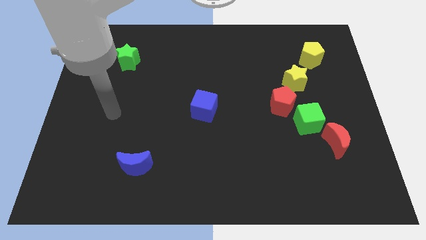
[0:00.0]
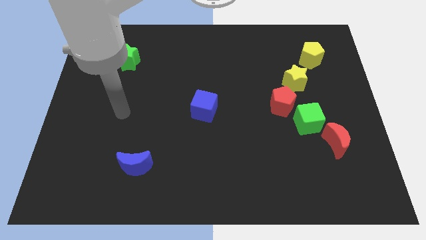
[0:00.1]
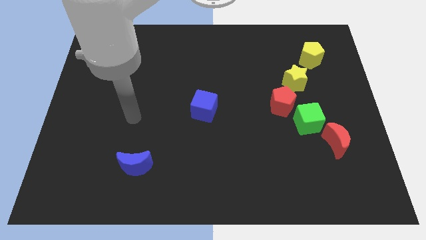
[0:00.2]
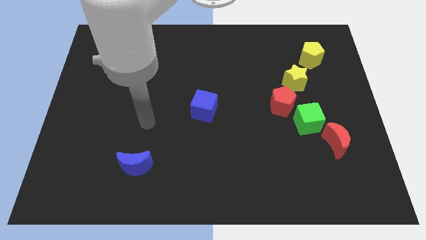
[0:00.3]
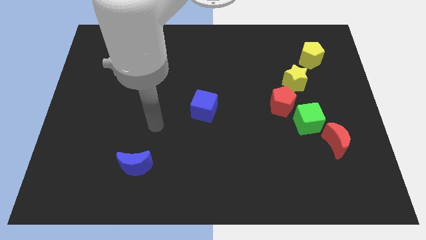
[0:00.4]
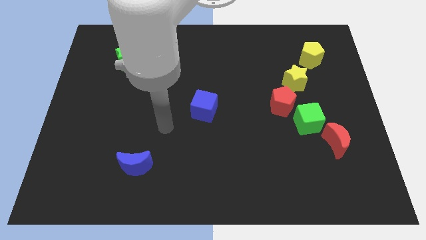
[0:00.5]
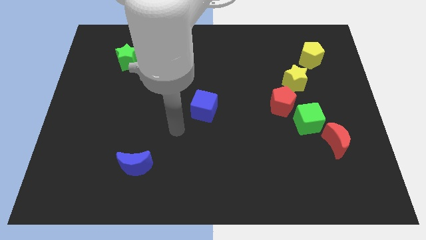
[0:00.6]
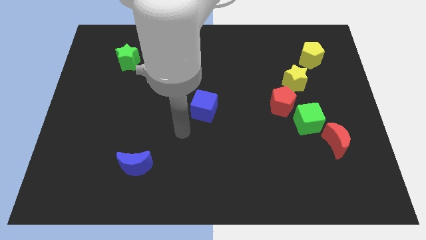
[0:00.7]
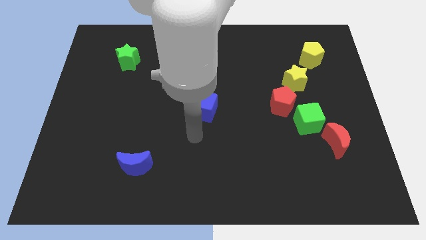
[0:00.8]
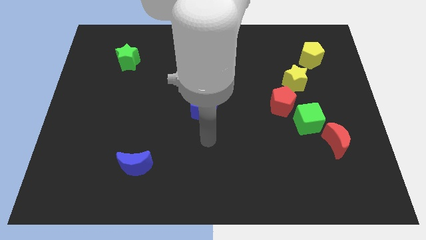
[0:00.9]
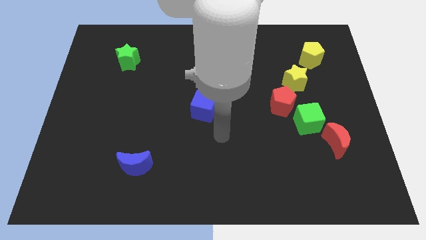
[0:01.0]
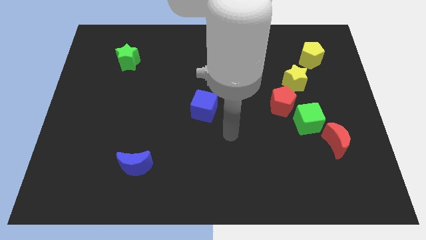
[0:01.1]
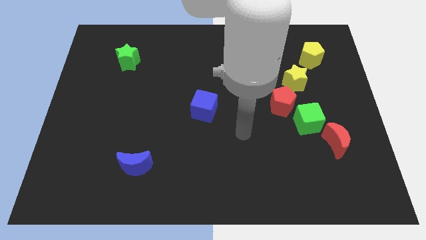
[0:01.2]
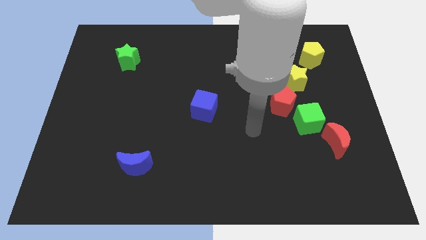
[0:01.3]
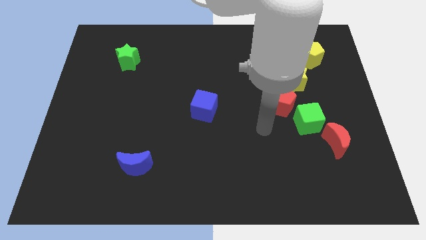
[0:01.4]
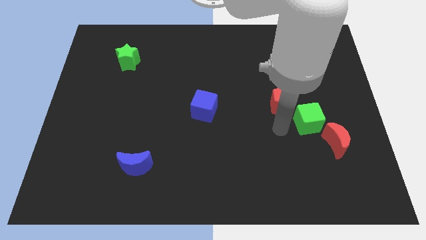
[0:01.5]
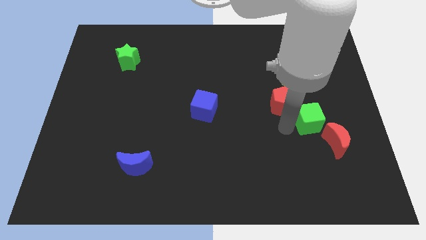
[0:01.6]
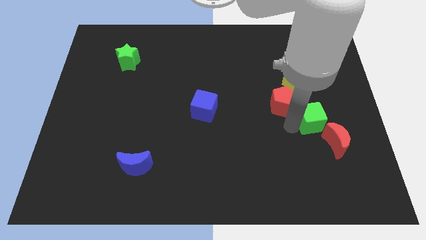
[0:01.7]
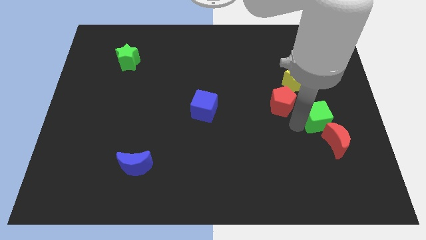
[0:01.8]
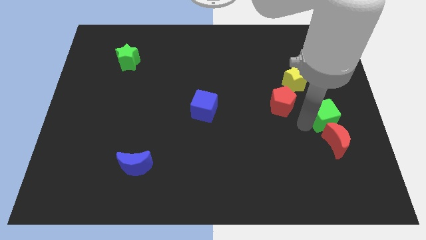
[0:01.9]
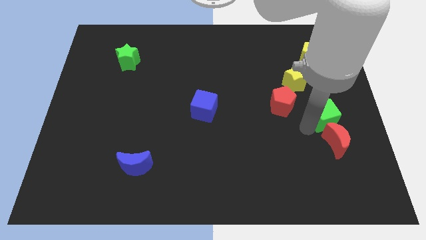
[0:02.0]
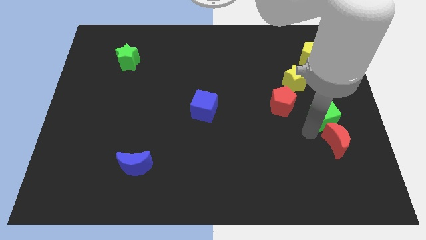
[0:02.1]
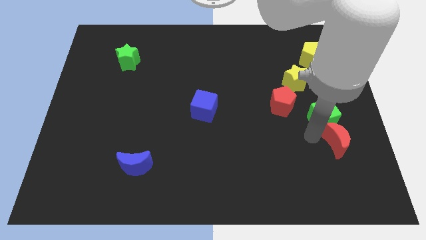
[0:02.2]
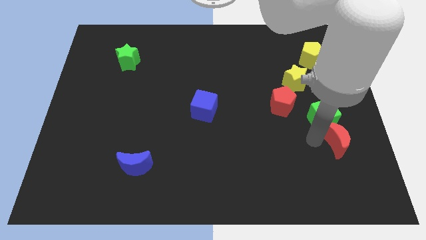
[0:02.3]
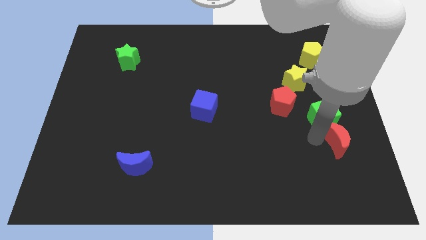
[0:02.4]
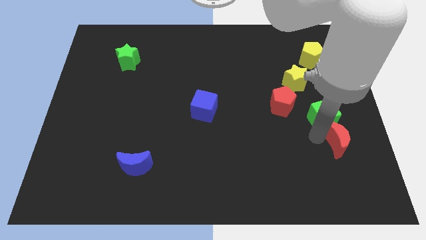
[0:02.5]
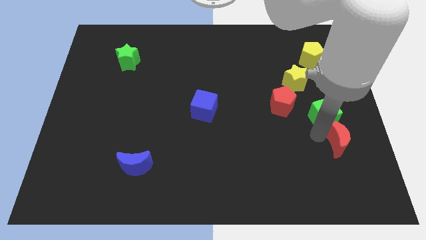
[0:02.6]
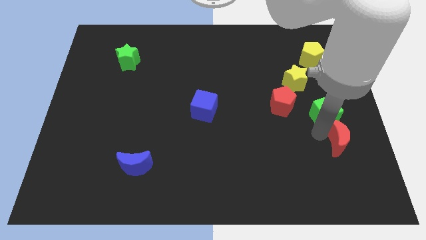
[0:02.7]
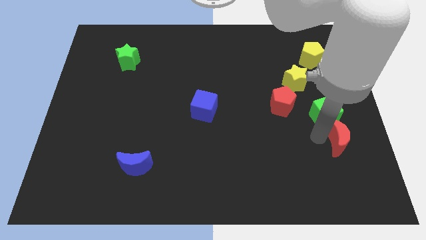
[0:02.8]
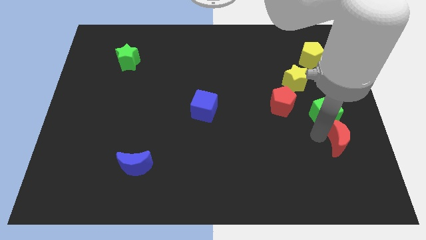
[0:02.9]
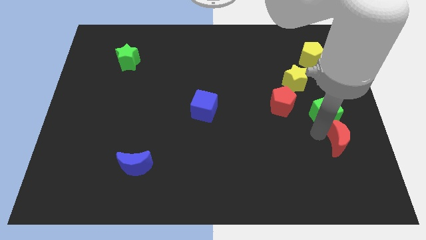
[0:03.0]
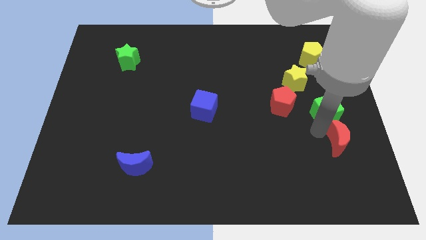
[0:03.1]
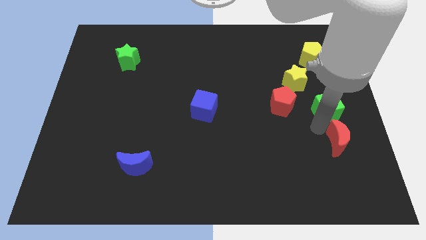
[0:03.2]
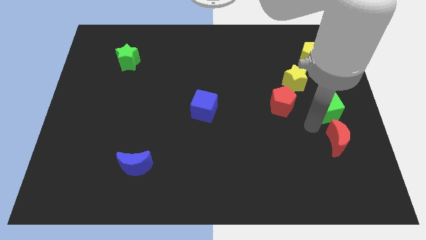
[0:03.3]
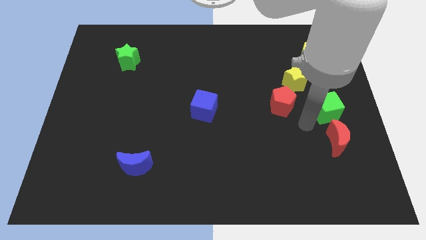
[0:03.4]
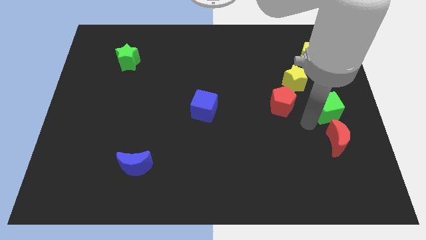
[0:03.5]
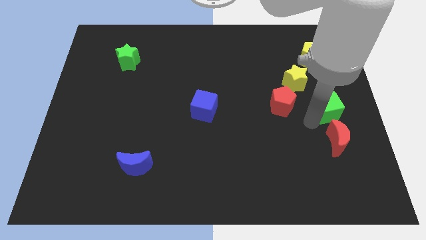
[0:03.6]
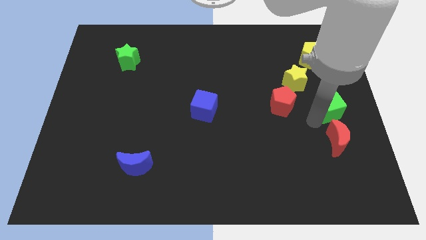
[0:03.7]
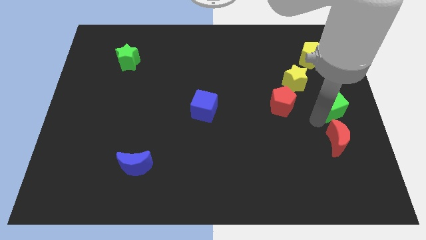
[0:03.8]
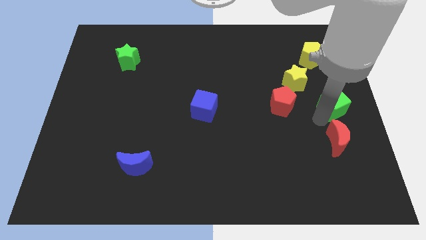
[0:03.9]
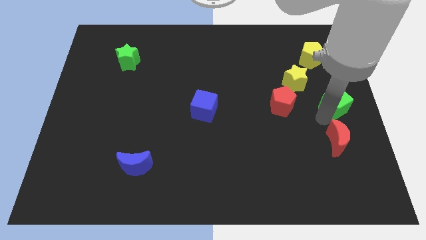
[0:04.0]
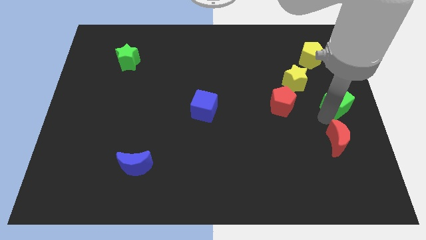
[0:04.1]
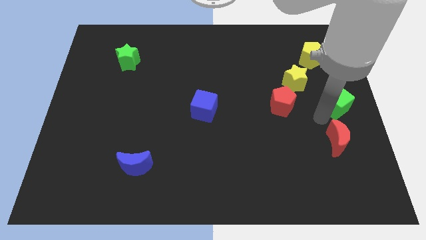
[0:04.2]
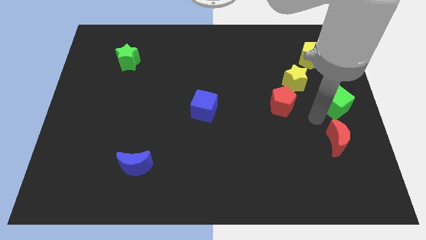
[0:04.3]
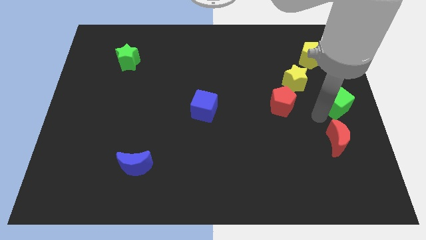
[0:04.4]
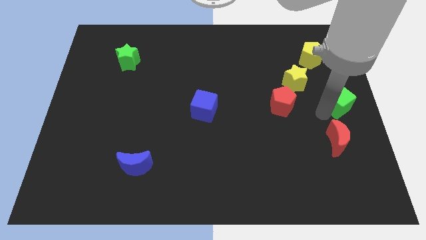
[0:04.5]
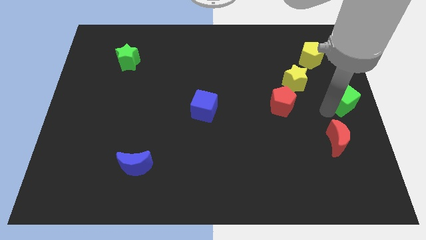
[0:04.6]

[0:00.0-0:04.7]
move the green cube away from the red pentagon and red moon

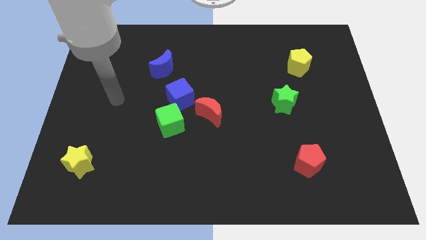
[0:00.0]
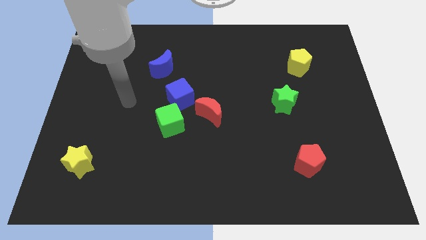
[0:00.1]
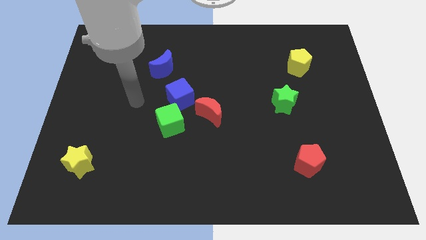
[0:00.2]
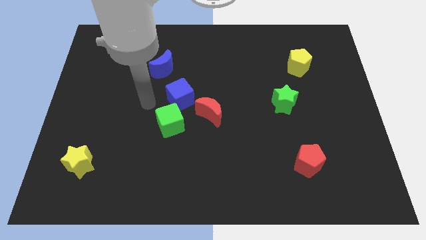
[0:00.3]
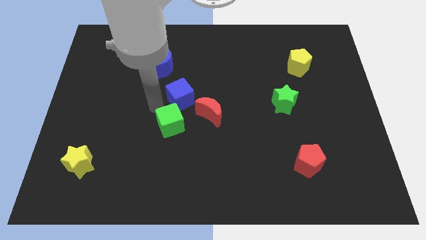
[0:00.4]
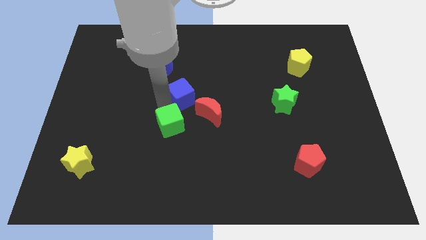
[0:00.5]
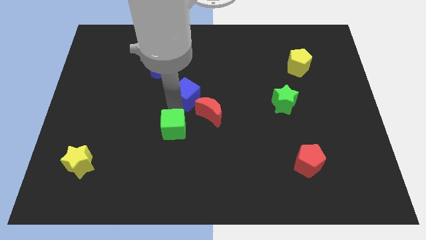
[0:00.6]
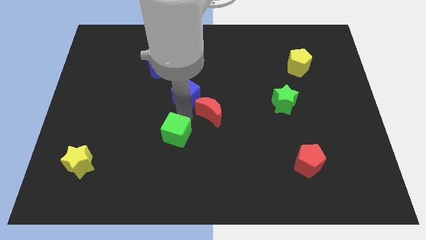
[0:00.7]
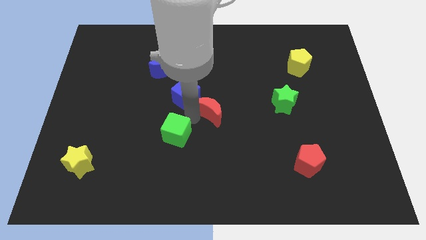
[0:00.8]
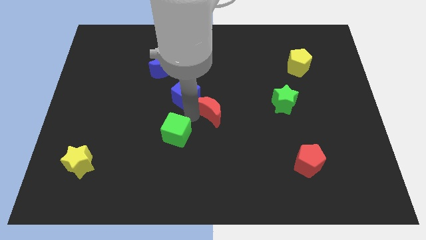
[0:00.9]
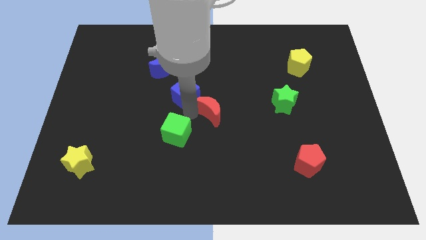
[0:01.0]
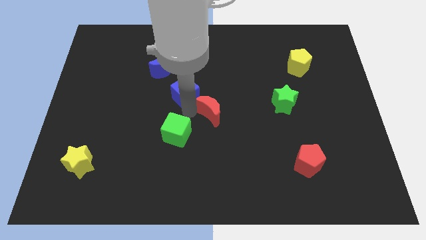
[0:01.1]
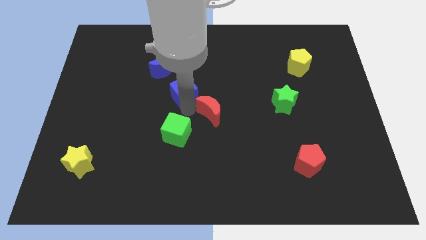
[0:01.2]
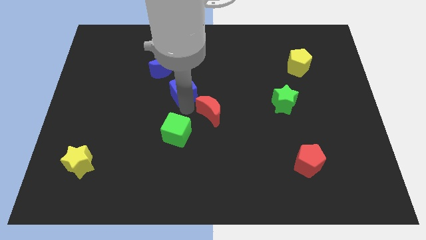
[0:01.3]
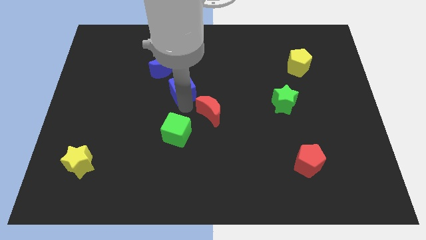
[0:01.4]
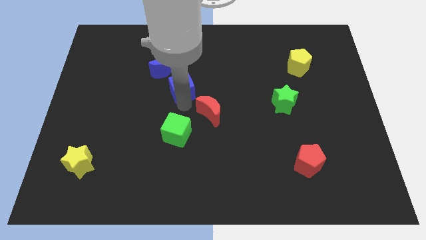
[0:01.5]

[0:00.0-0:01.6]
pull the blue cube apart from the green cube and red moon

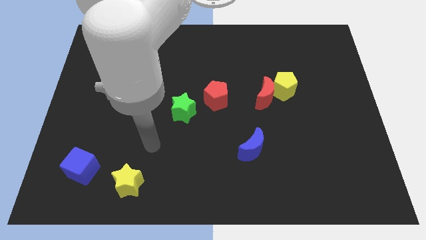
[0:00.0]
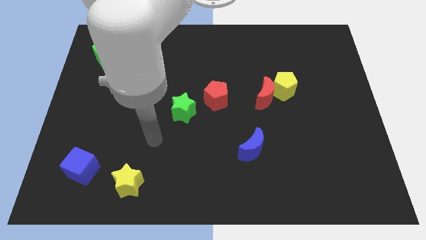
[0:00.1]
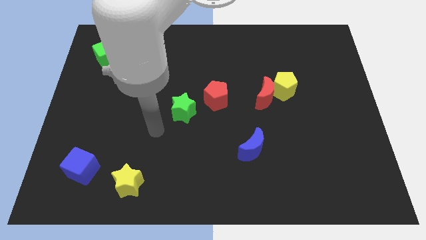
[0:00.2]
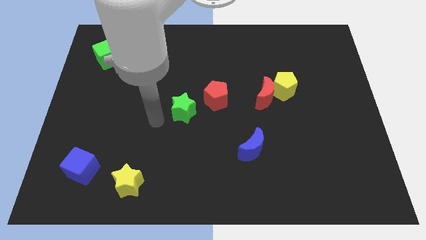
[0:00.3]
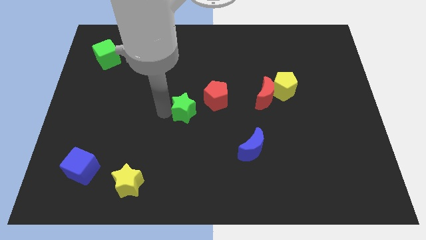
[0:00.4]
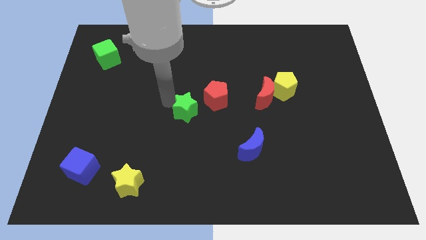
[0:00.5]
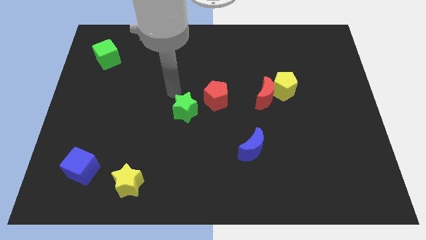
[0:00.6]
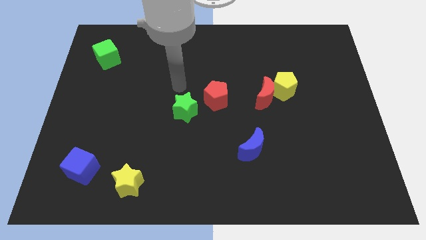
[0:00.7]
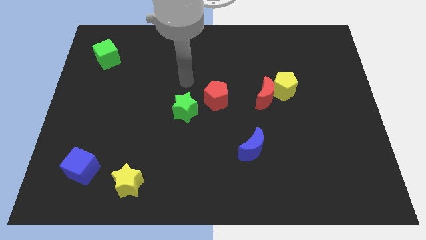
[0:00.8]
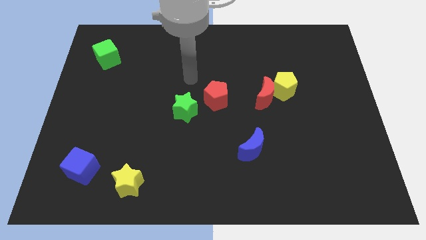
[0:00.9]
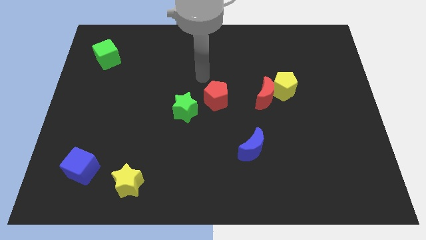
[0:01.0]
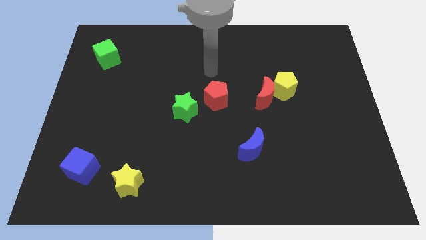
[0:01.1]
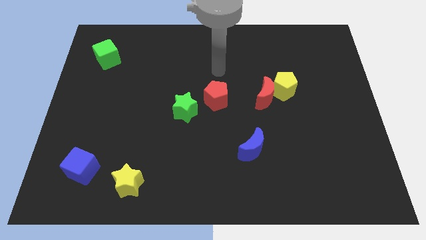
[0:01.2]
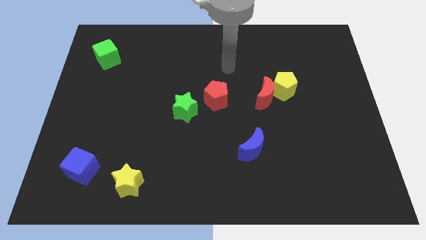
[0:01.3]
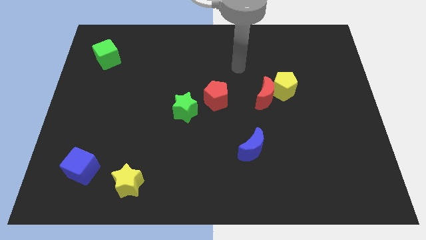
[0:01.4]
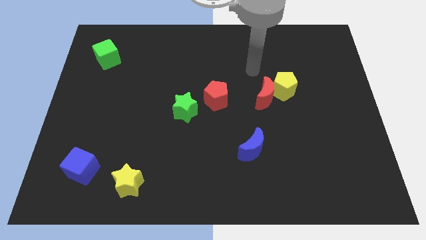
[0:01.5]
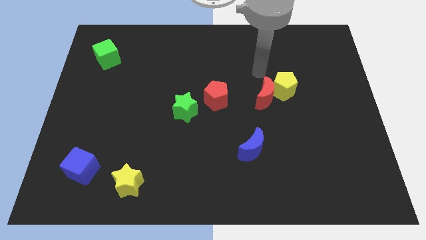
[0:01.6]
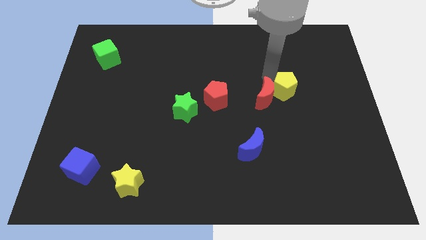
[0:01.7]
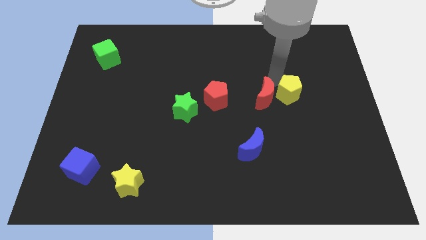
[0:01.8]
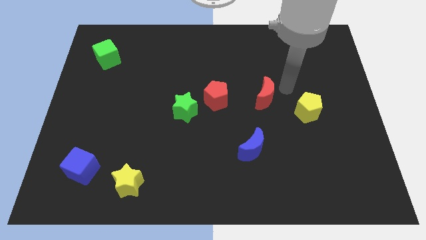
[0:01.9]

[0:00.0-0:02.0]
move the red moon away from the yellow pentagon

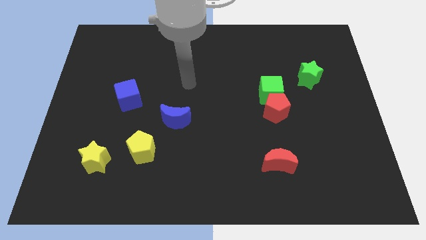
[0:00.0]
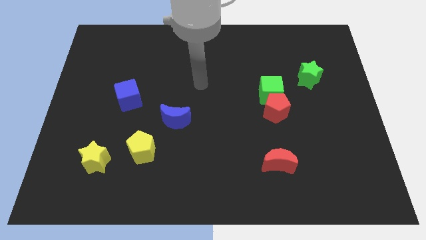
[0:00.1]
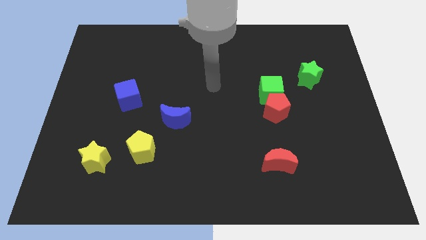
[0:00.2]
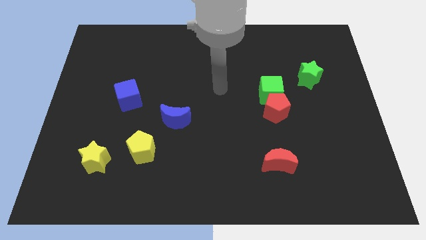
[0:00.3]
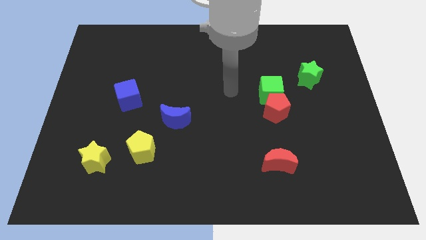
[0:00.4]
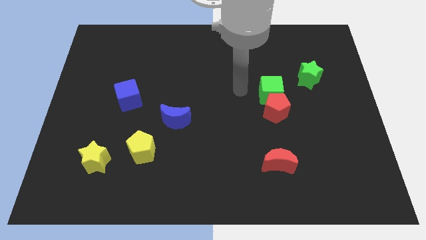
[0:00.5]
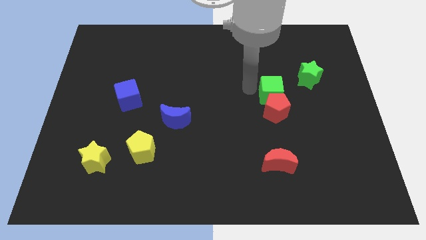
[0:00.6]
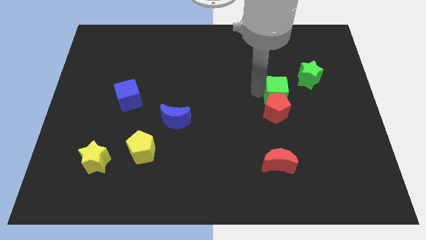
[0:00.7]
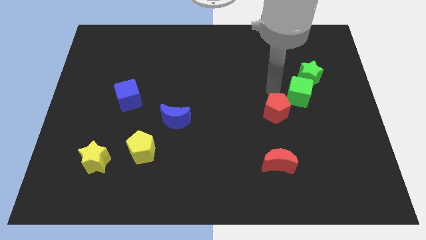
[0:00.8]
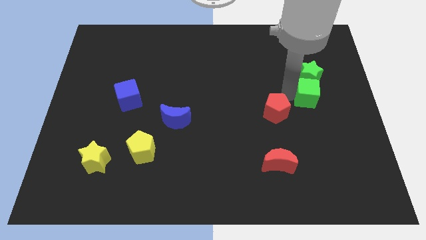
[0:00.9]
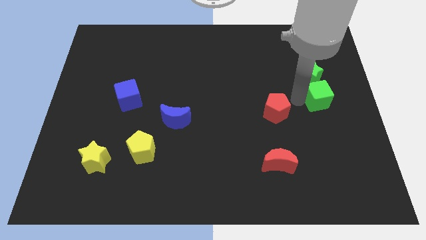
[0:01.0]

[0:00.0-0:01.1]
pull the red pentagon apart from the green cube
